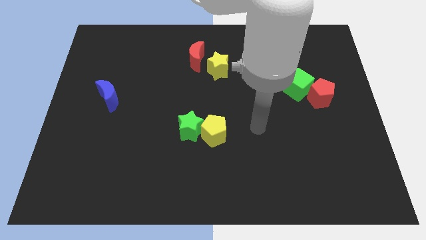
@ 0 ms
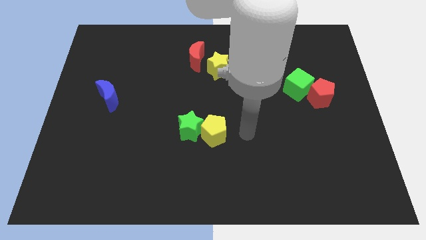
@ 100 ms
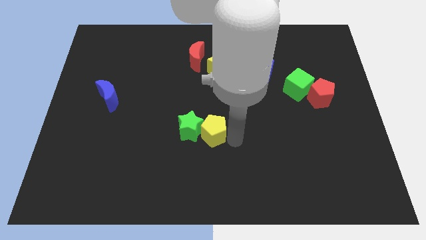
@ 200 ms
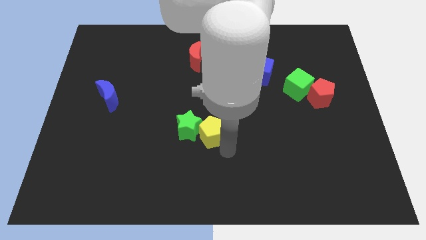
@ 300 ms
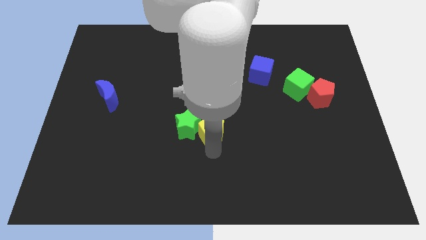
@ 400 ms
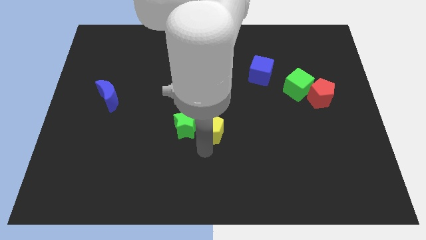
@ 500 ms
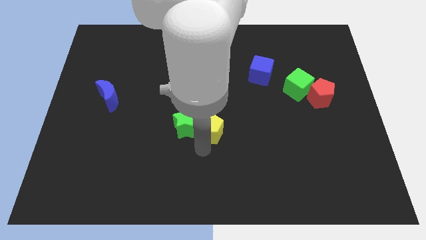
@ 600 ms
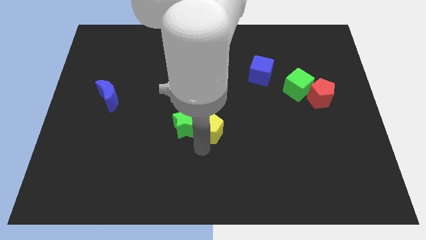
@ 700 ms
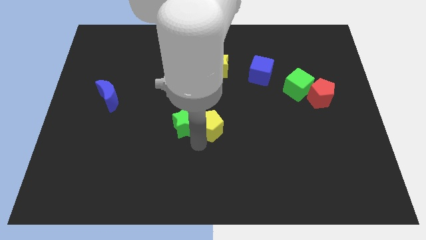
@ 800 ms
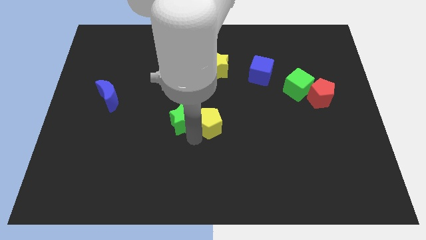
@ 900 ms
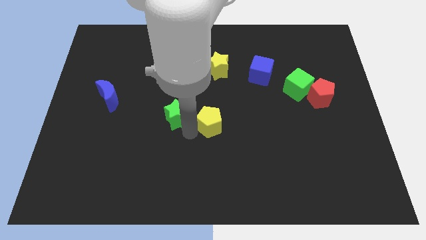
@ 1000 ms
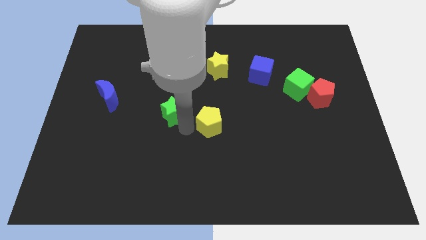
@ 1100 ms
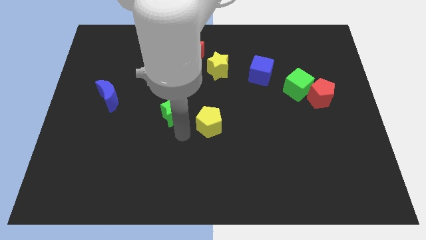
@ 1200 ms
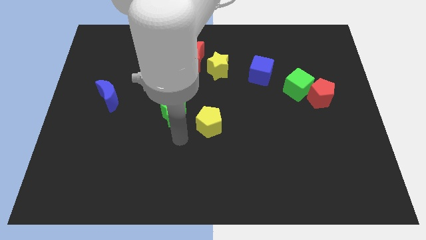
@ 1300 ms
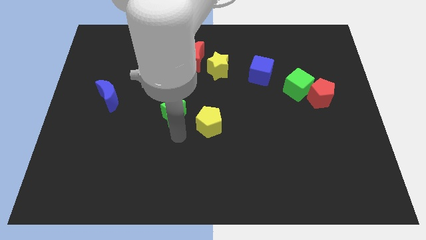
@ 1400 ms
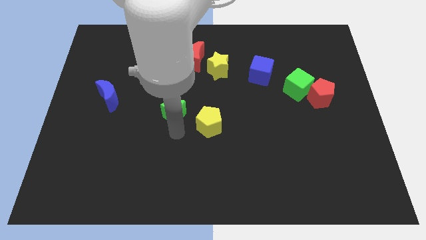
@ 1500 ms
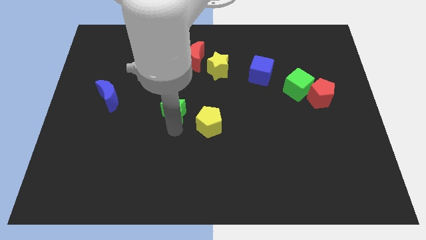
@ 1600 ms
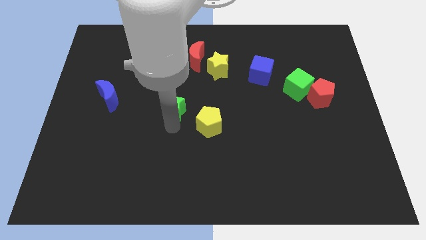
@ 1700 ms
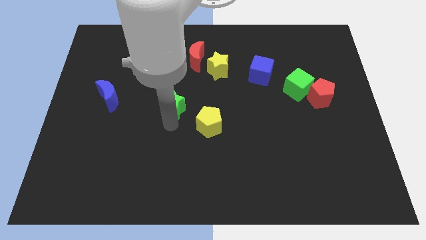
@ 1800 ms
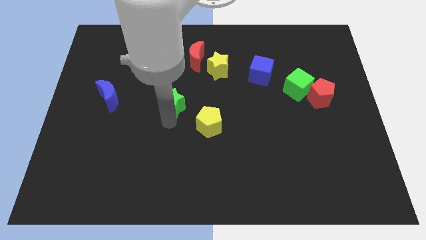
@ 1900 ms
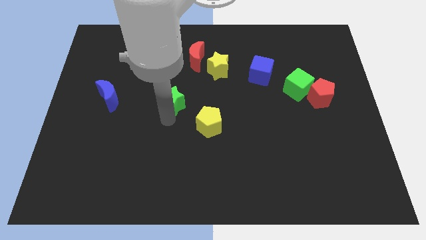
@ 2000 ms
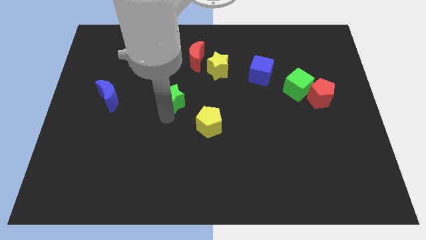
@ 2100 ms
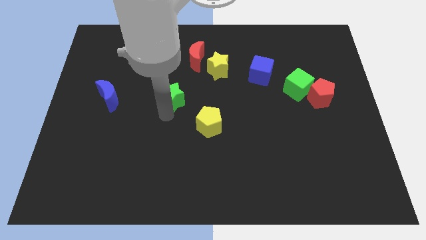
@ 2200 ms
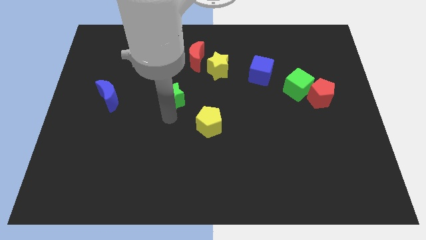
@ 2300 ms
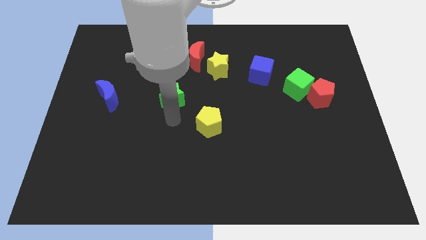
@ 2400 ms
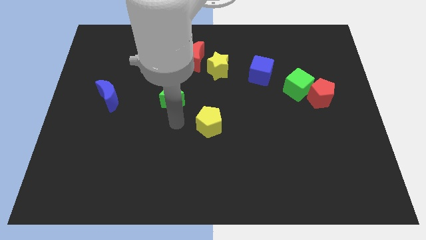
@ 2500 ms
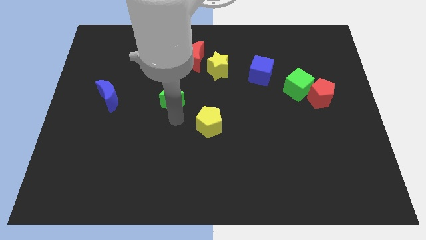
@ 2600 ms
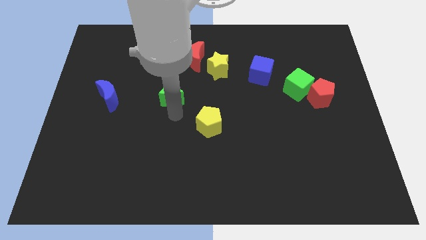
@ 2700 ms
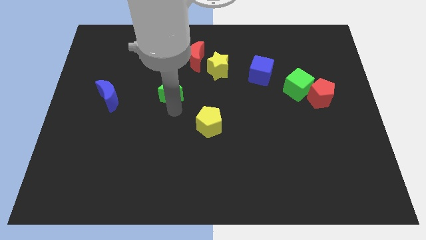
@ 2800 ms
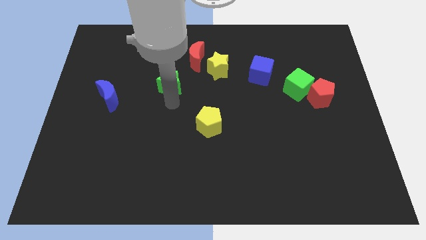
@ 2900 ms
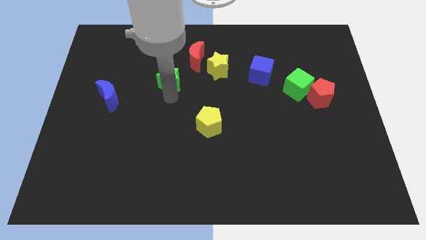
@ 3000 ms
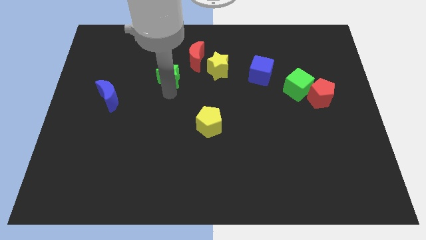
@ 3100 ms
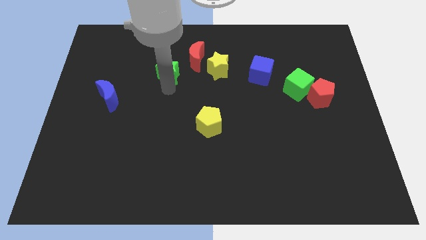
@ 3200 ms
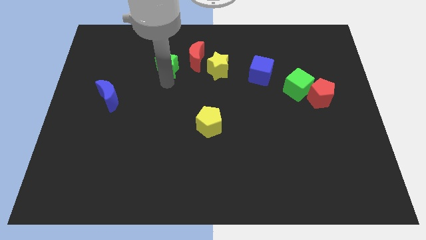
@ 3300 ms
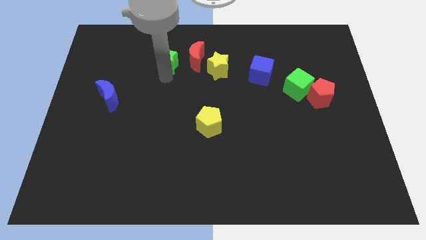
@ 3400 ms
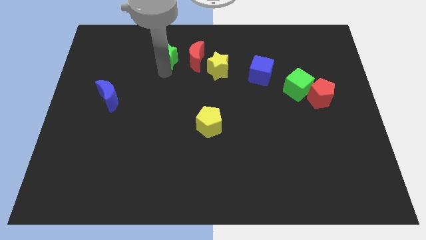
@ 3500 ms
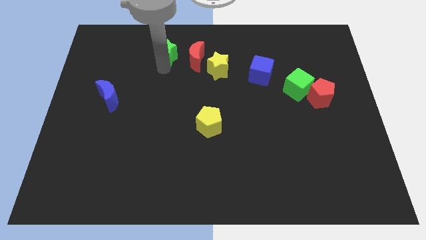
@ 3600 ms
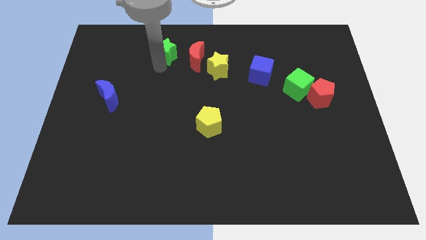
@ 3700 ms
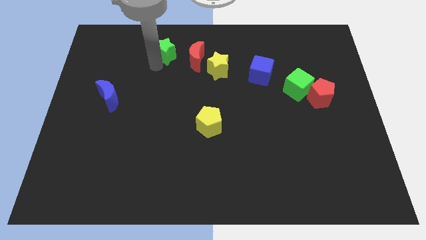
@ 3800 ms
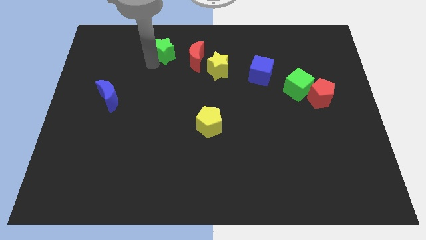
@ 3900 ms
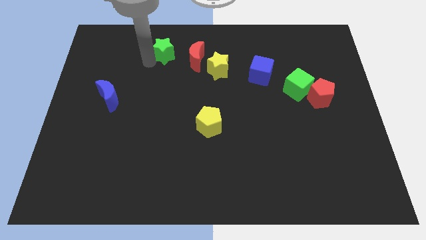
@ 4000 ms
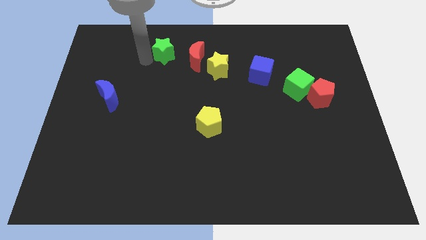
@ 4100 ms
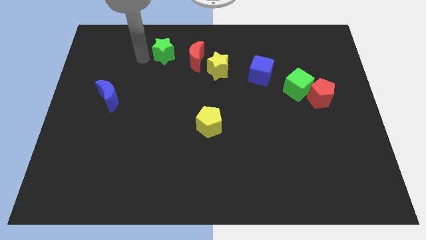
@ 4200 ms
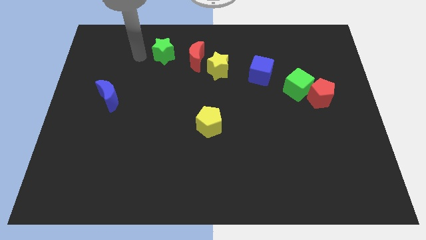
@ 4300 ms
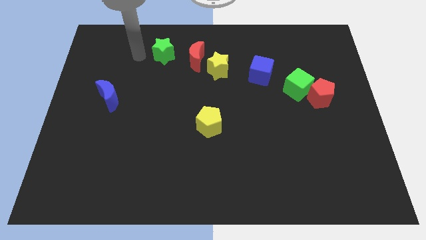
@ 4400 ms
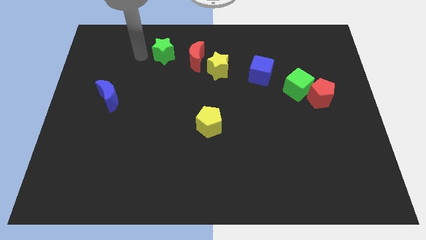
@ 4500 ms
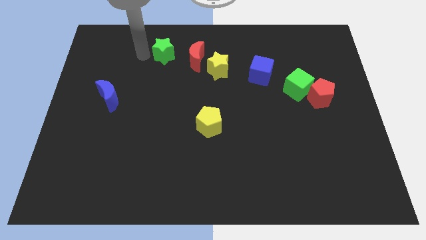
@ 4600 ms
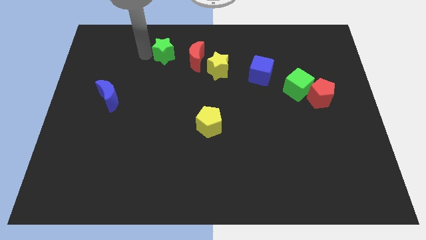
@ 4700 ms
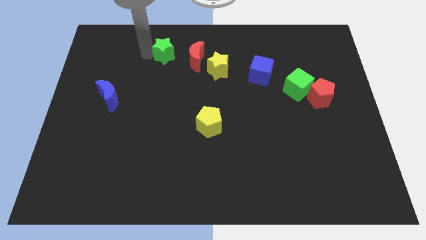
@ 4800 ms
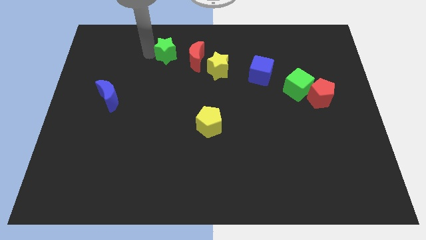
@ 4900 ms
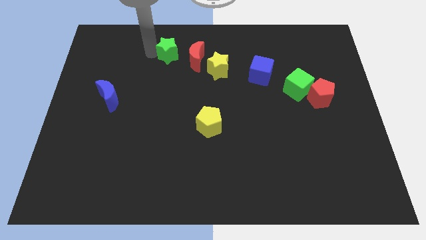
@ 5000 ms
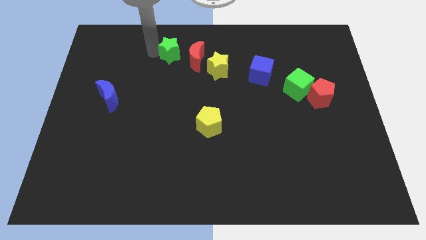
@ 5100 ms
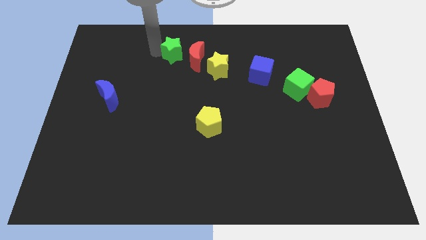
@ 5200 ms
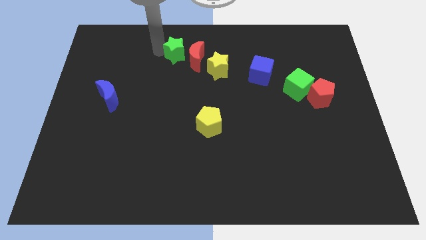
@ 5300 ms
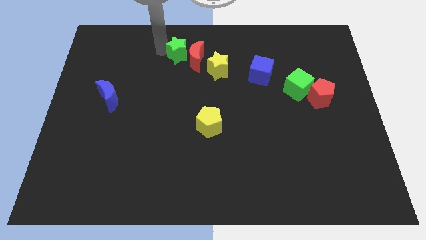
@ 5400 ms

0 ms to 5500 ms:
put the green star to the top left side of the yellow star

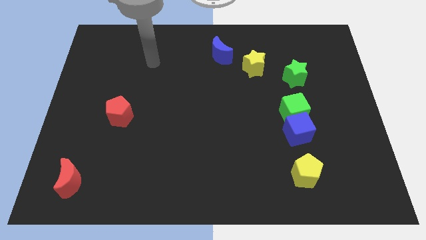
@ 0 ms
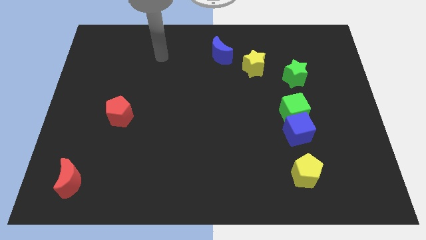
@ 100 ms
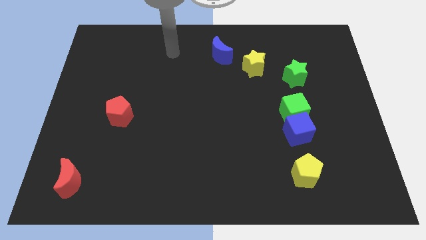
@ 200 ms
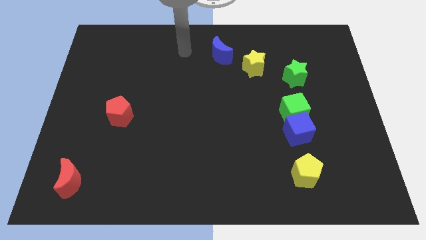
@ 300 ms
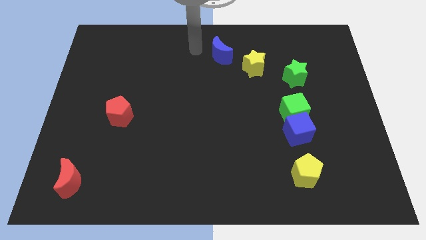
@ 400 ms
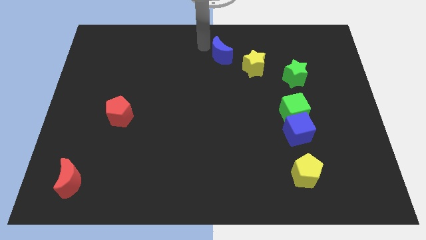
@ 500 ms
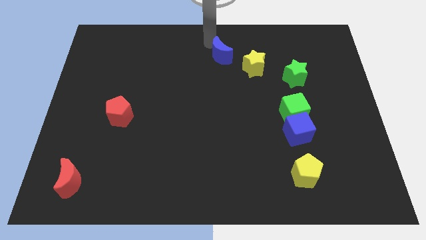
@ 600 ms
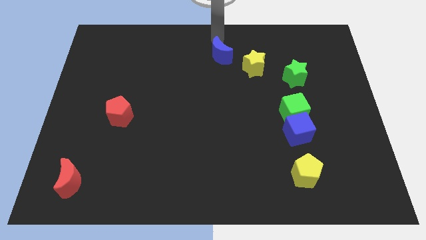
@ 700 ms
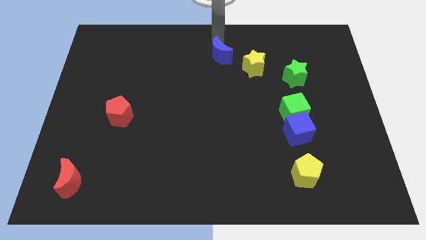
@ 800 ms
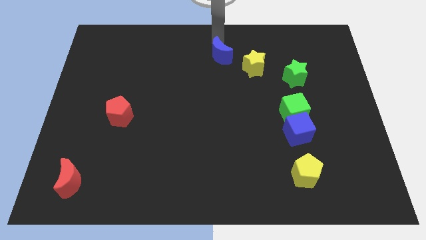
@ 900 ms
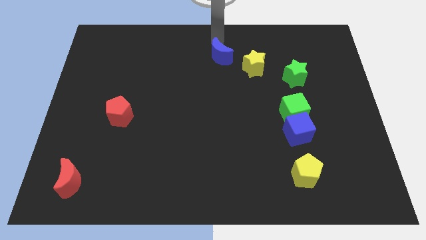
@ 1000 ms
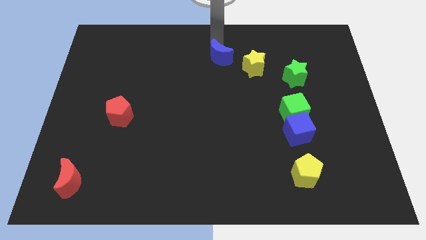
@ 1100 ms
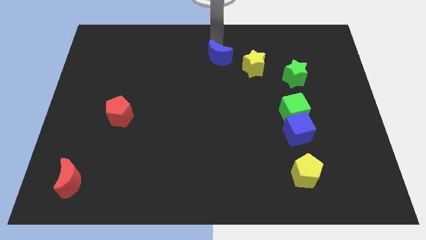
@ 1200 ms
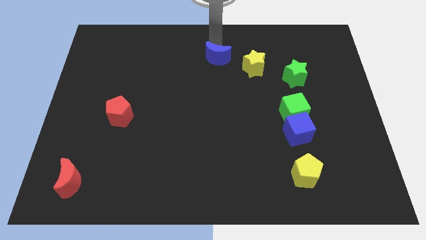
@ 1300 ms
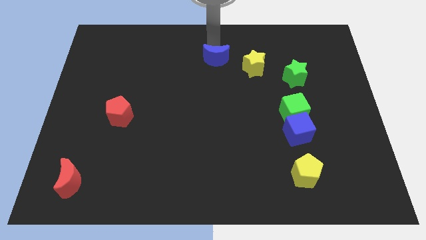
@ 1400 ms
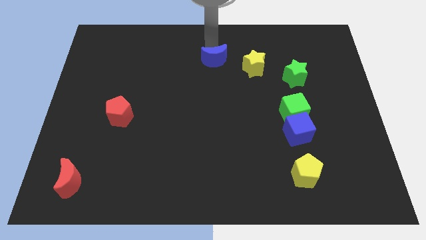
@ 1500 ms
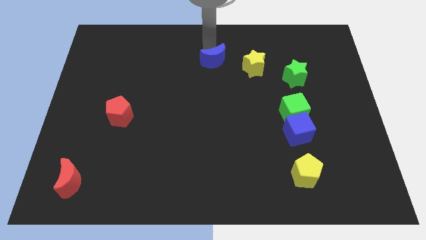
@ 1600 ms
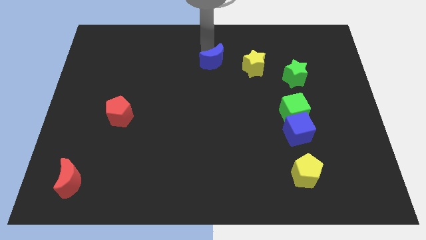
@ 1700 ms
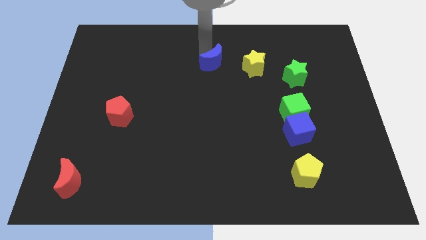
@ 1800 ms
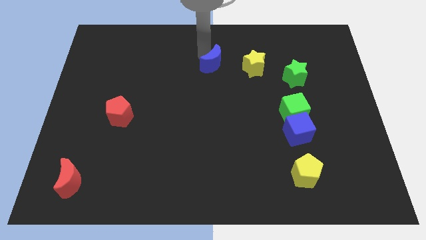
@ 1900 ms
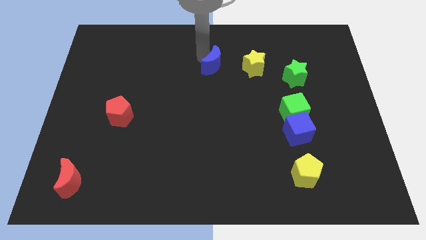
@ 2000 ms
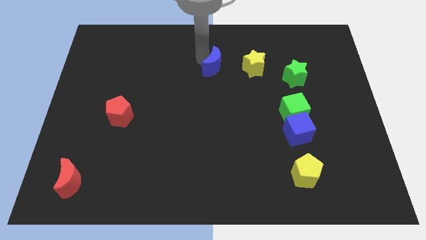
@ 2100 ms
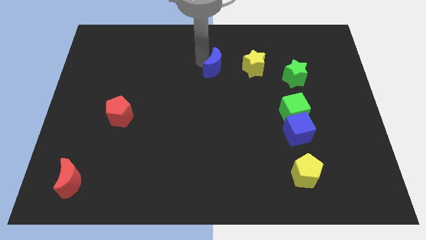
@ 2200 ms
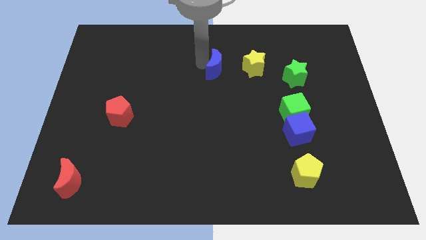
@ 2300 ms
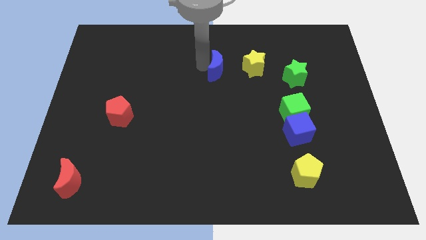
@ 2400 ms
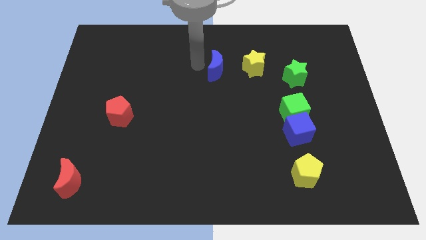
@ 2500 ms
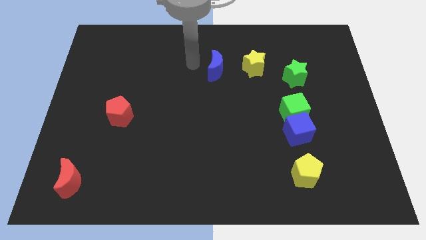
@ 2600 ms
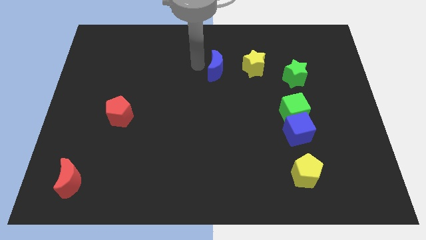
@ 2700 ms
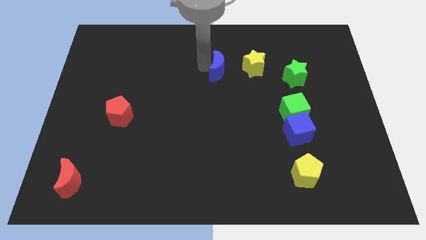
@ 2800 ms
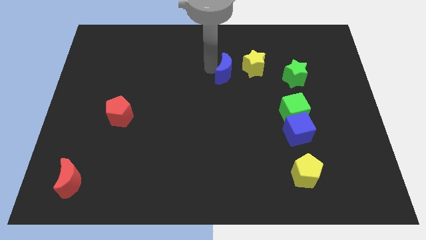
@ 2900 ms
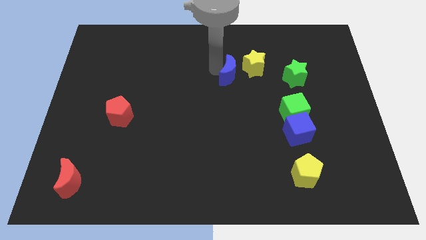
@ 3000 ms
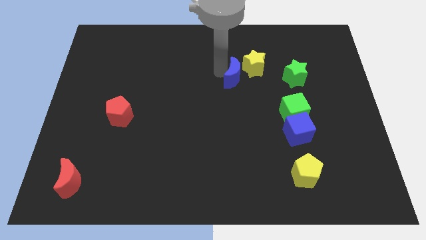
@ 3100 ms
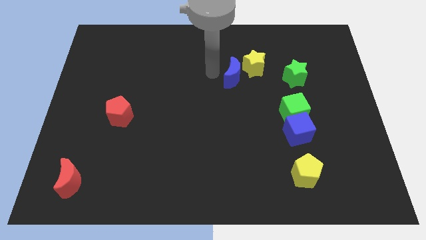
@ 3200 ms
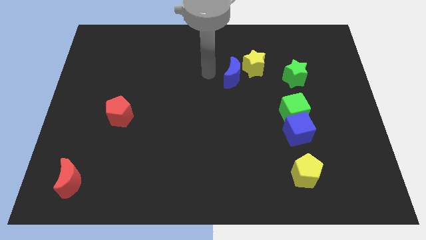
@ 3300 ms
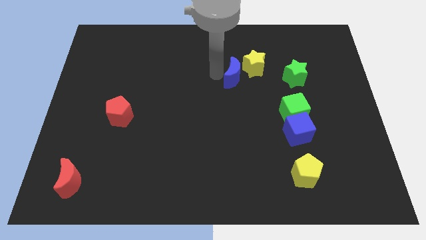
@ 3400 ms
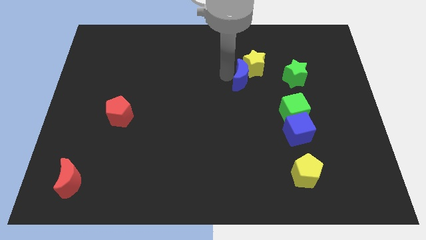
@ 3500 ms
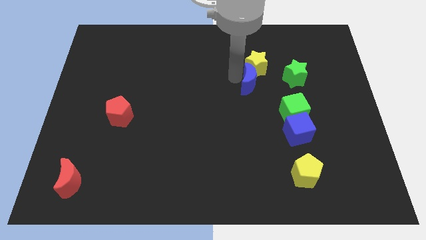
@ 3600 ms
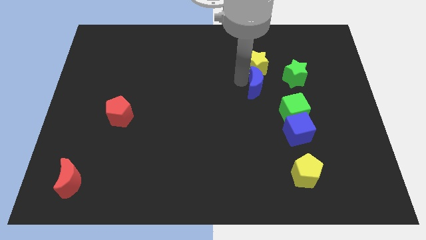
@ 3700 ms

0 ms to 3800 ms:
slide the blue moon to the bottom right of the yellow star
